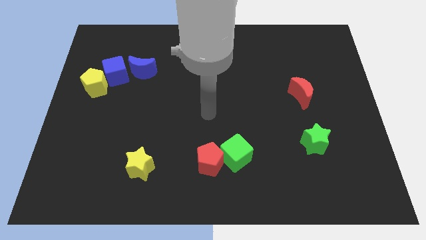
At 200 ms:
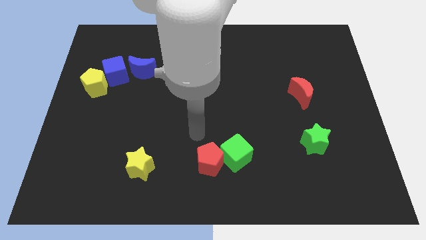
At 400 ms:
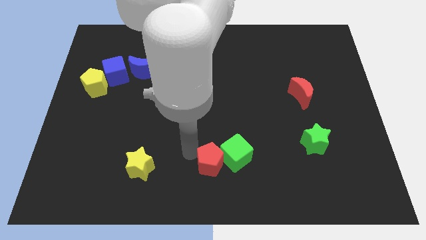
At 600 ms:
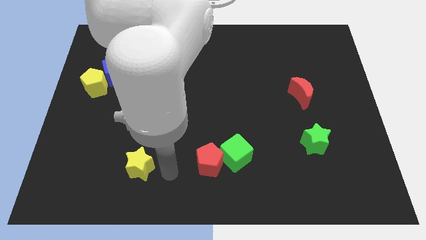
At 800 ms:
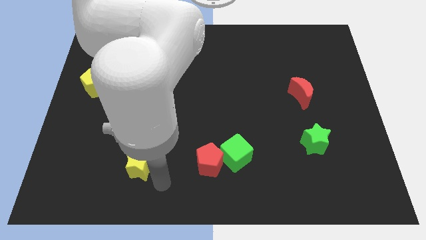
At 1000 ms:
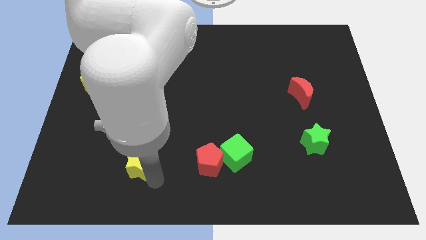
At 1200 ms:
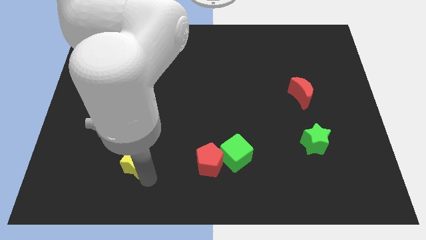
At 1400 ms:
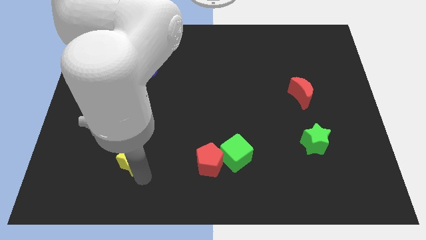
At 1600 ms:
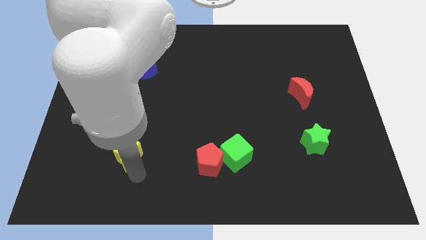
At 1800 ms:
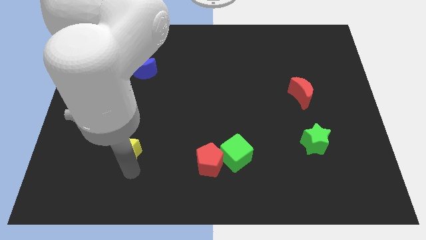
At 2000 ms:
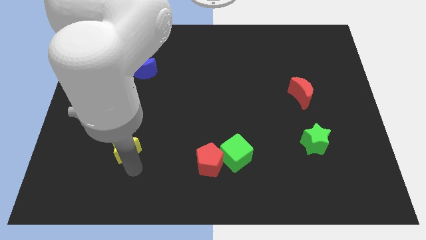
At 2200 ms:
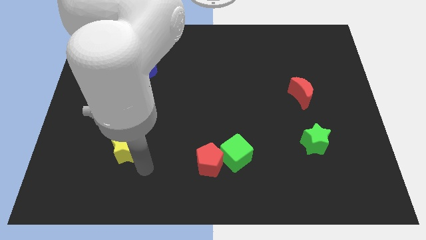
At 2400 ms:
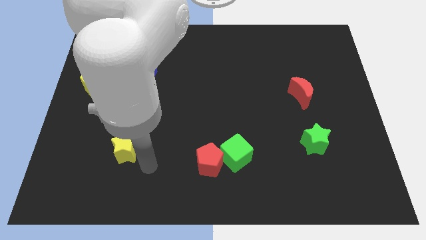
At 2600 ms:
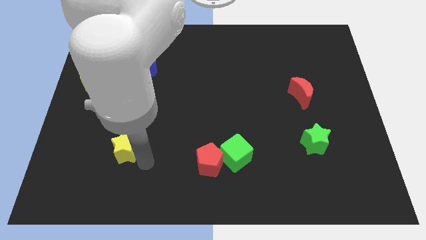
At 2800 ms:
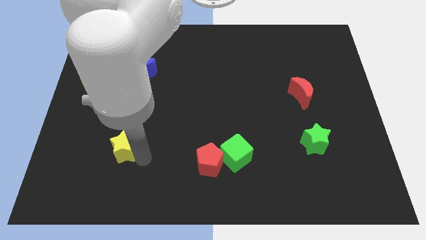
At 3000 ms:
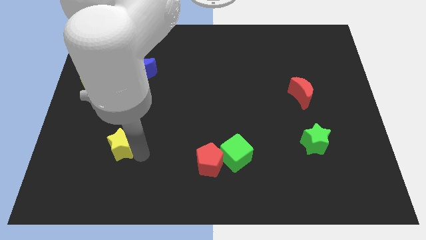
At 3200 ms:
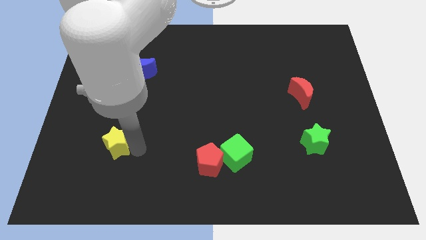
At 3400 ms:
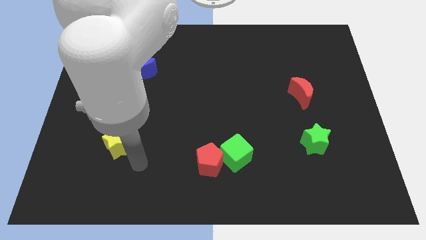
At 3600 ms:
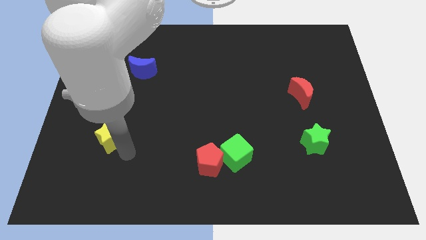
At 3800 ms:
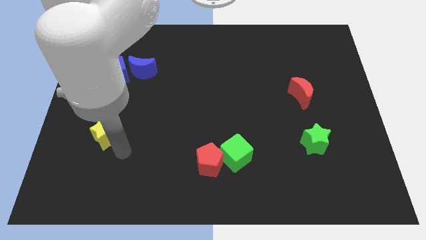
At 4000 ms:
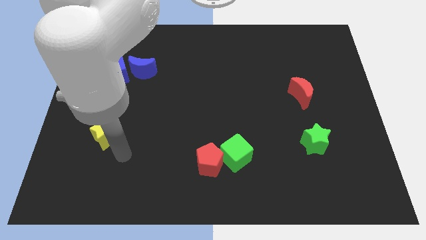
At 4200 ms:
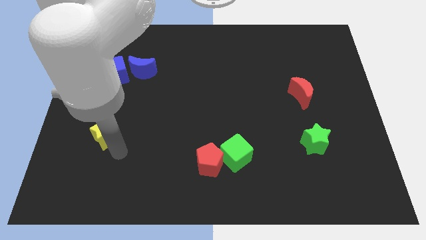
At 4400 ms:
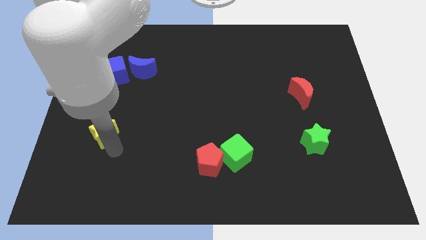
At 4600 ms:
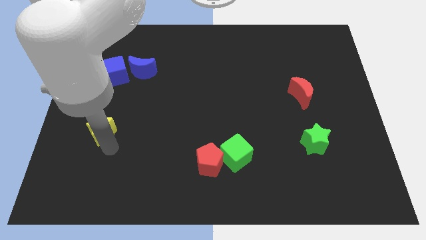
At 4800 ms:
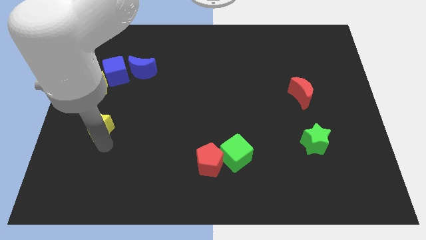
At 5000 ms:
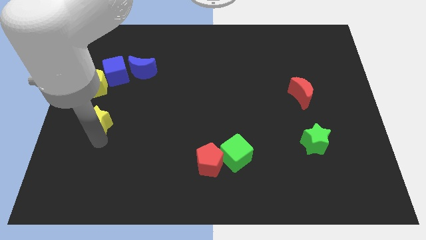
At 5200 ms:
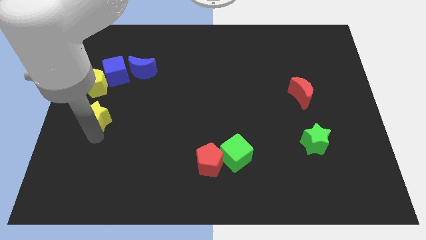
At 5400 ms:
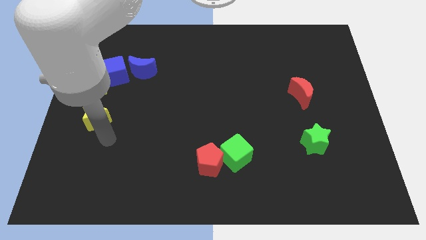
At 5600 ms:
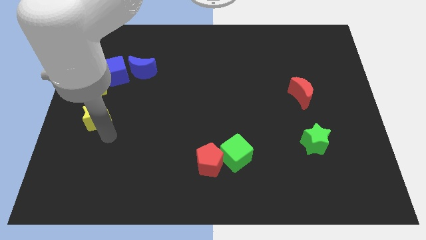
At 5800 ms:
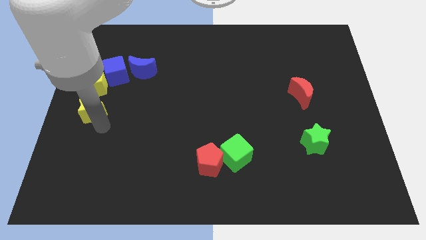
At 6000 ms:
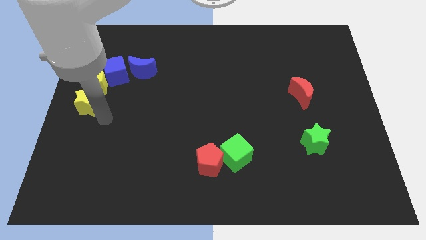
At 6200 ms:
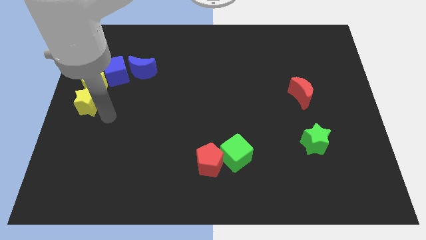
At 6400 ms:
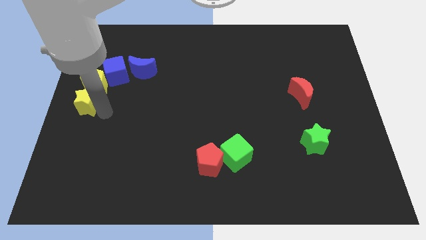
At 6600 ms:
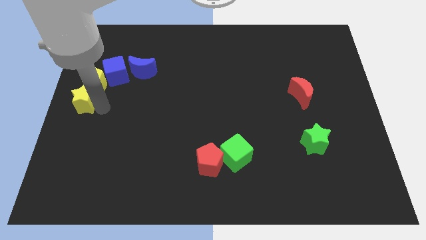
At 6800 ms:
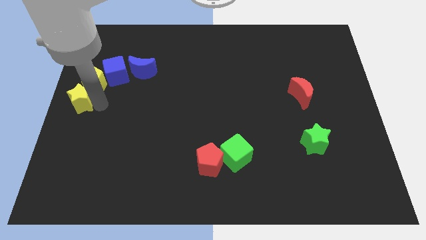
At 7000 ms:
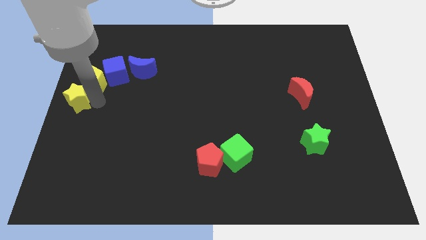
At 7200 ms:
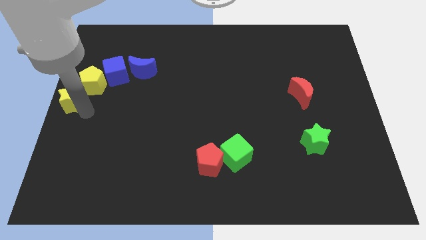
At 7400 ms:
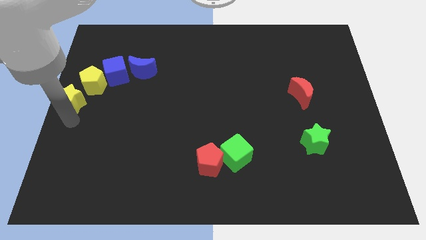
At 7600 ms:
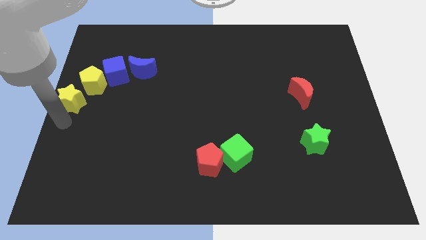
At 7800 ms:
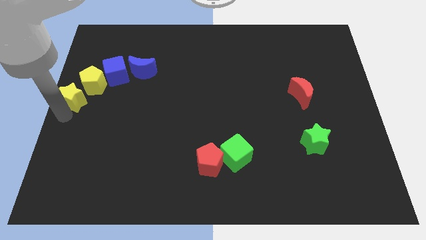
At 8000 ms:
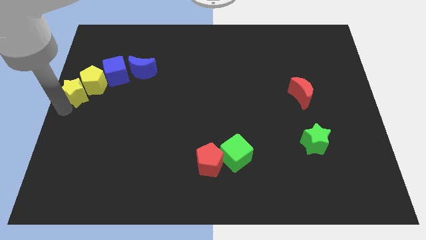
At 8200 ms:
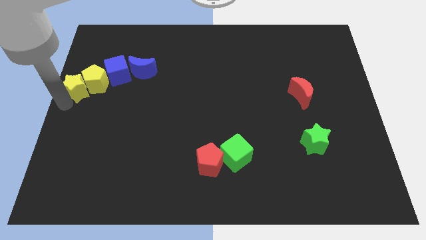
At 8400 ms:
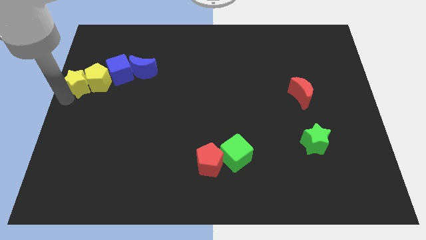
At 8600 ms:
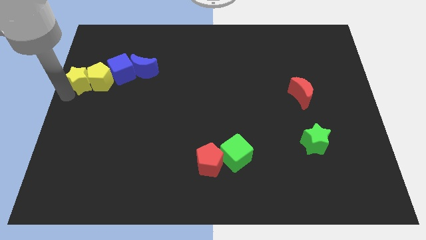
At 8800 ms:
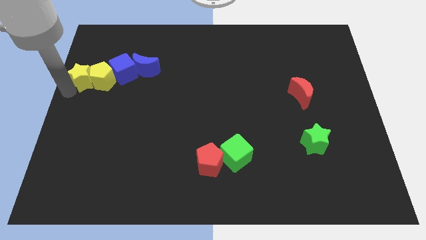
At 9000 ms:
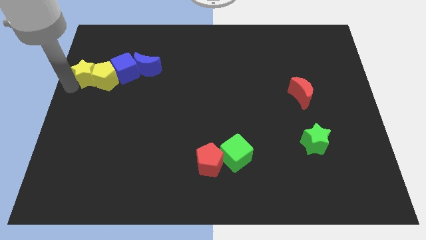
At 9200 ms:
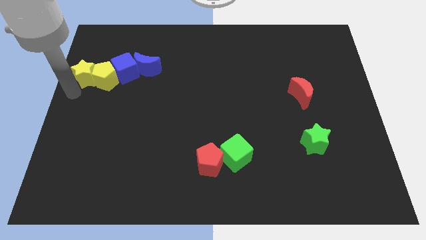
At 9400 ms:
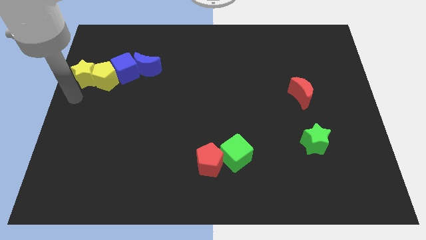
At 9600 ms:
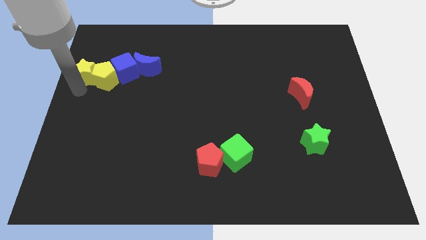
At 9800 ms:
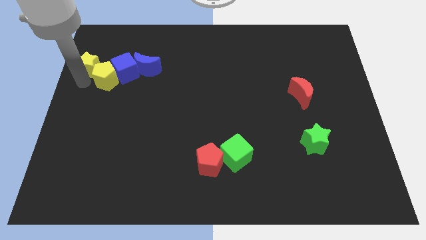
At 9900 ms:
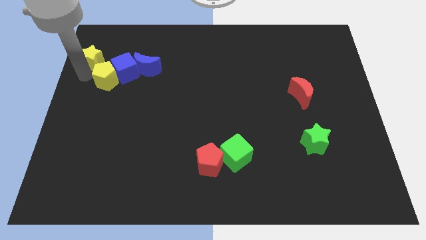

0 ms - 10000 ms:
put the yellow star to the top side of the yellow pentagon

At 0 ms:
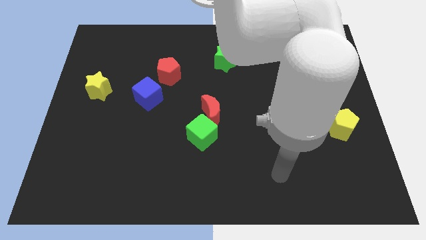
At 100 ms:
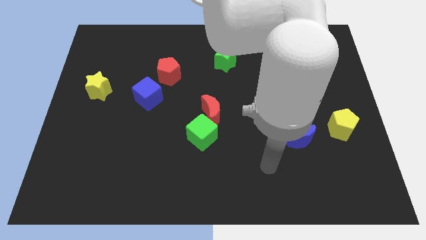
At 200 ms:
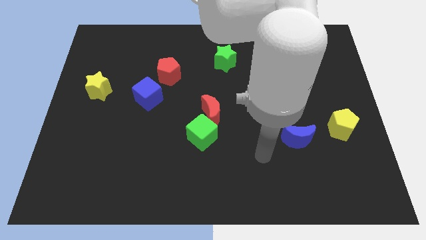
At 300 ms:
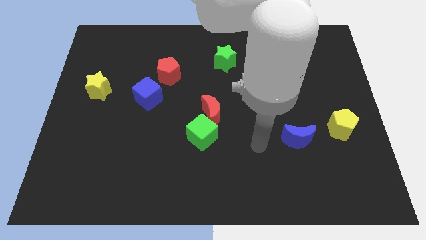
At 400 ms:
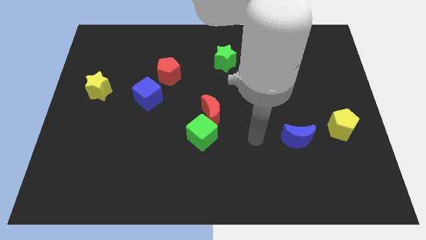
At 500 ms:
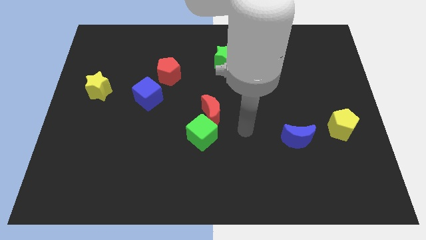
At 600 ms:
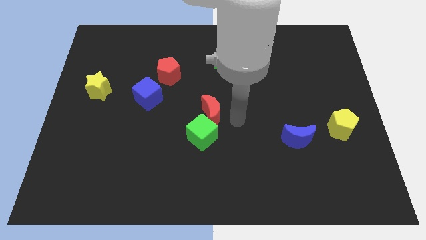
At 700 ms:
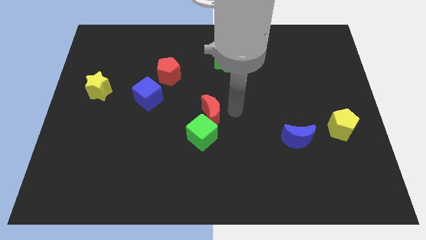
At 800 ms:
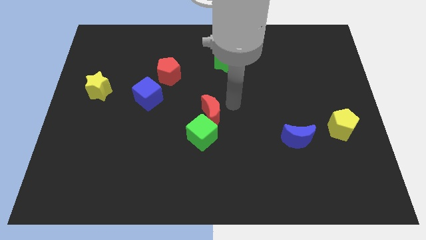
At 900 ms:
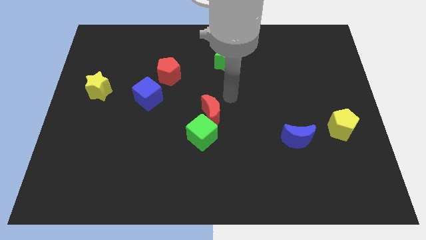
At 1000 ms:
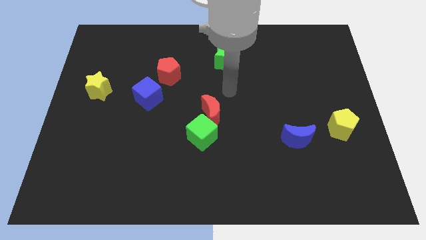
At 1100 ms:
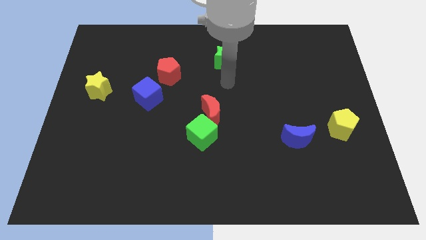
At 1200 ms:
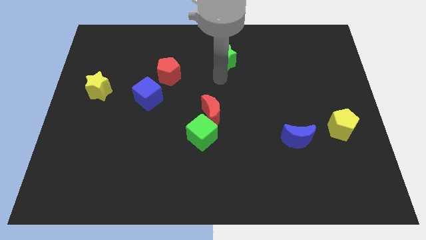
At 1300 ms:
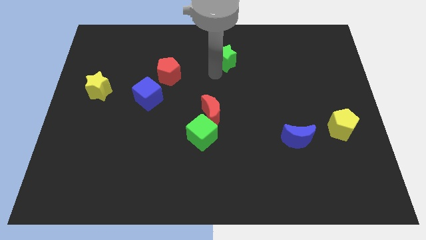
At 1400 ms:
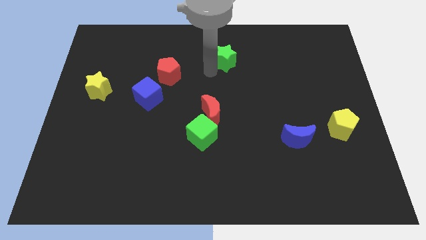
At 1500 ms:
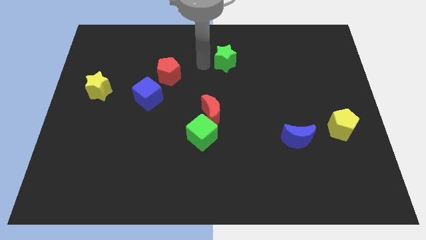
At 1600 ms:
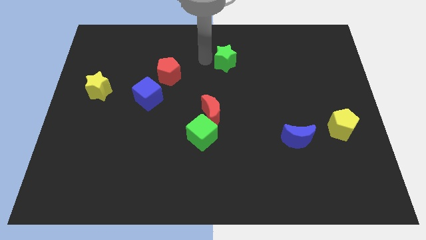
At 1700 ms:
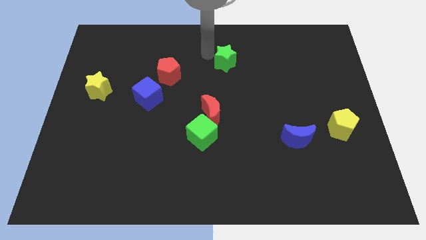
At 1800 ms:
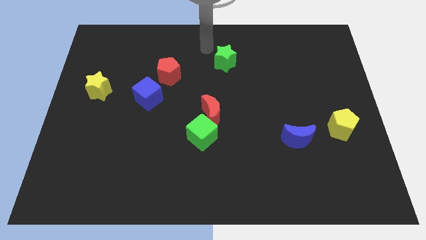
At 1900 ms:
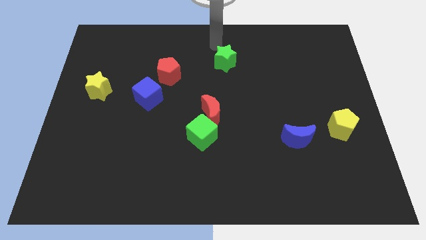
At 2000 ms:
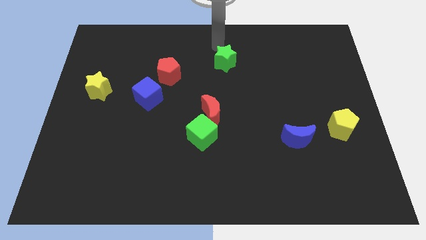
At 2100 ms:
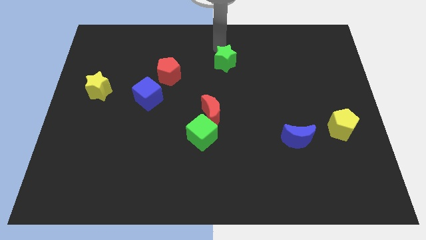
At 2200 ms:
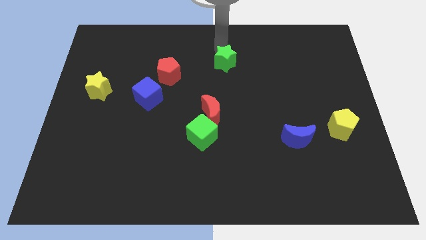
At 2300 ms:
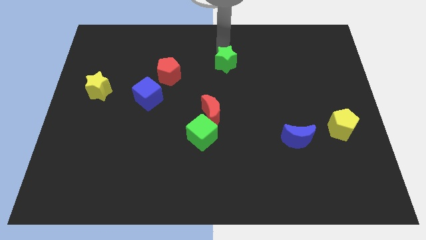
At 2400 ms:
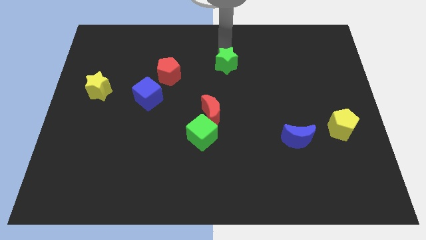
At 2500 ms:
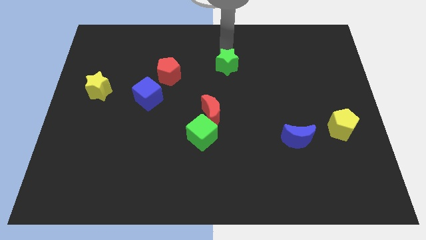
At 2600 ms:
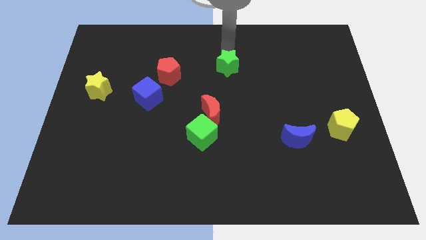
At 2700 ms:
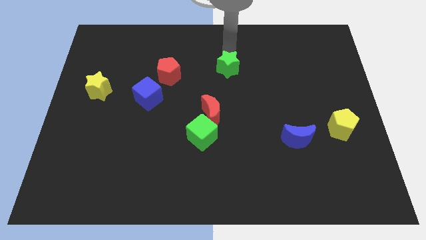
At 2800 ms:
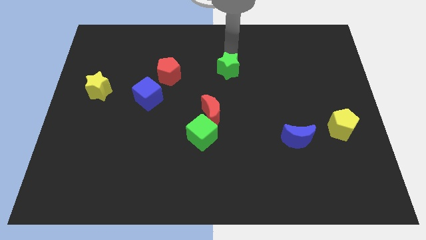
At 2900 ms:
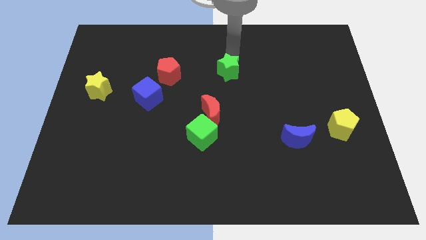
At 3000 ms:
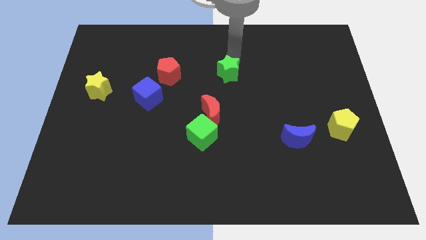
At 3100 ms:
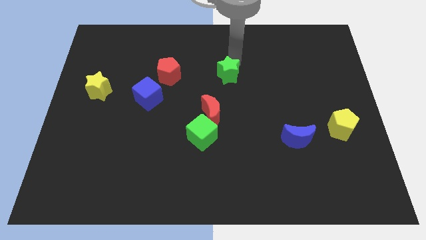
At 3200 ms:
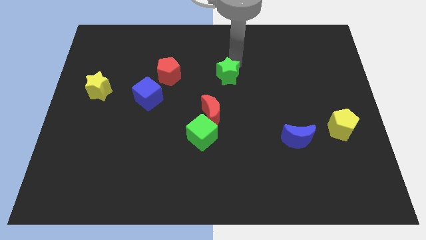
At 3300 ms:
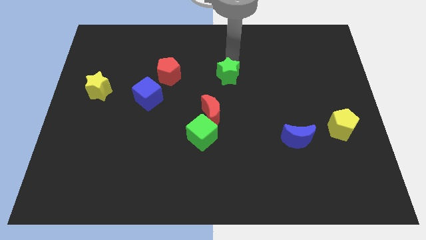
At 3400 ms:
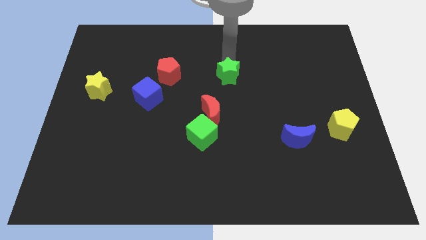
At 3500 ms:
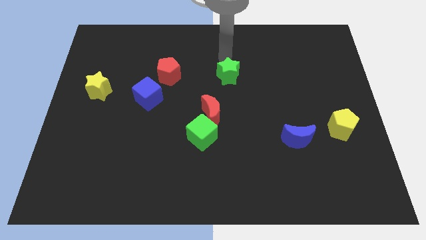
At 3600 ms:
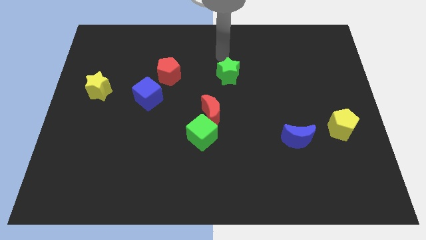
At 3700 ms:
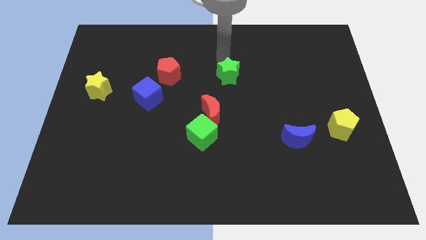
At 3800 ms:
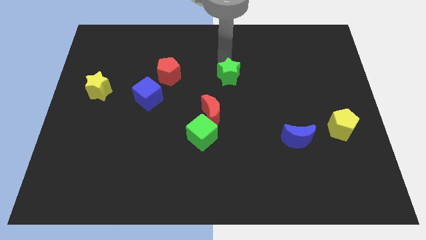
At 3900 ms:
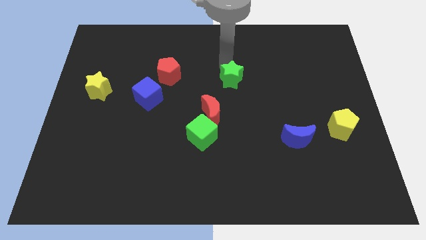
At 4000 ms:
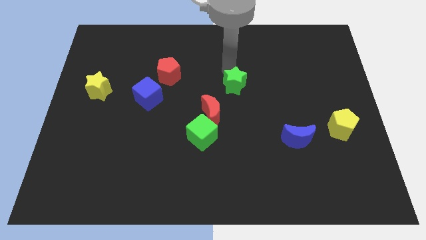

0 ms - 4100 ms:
put the green star to the top right side of the red moon
